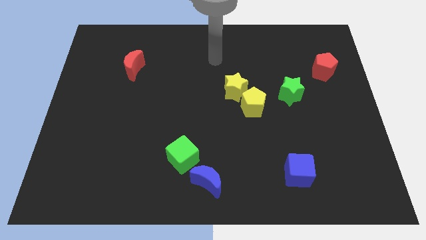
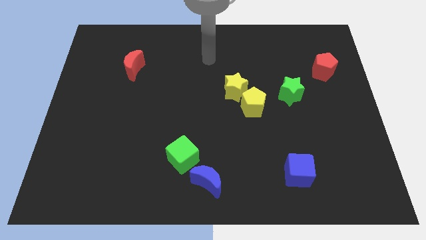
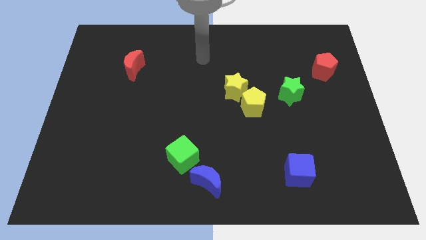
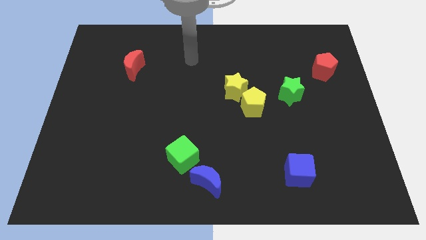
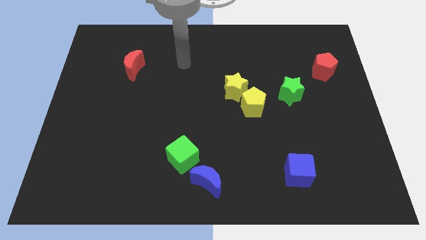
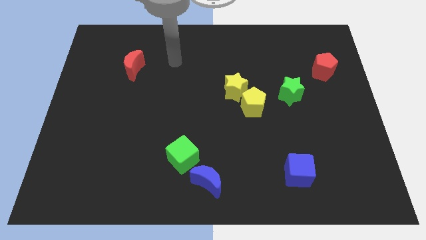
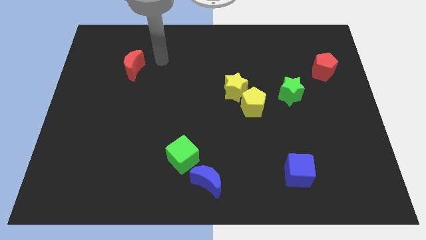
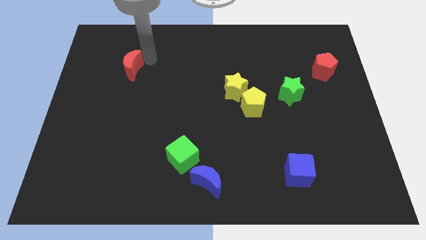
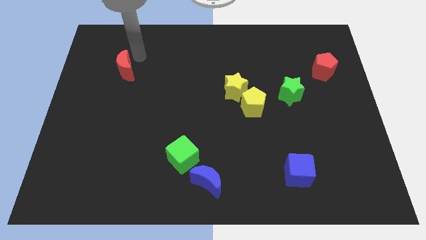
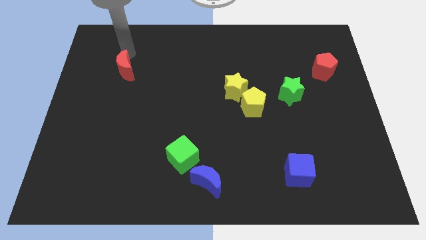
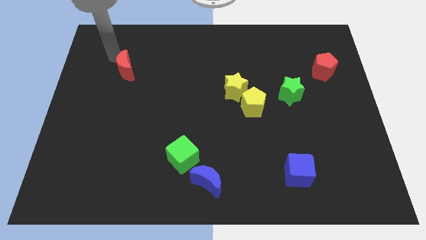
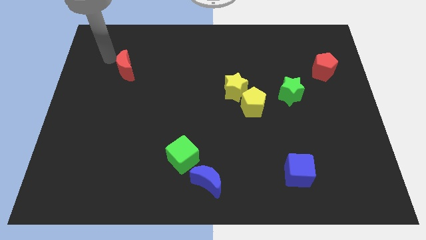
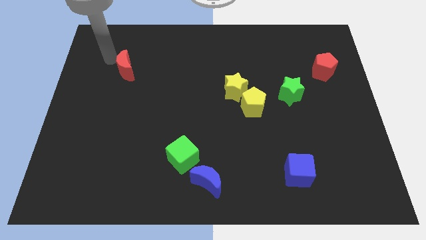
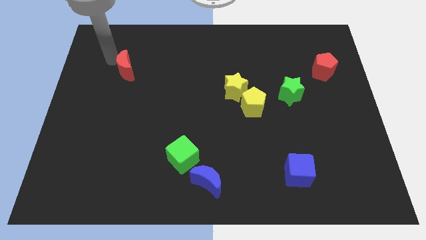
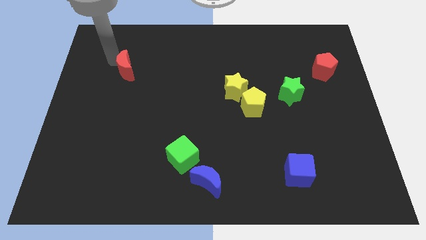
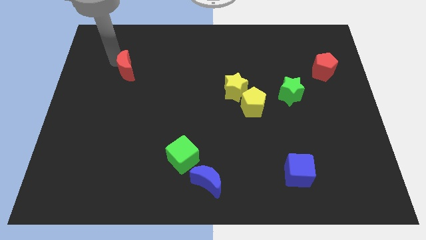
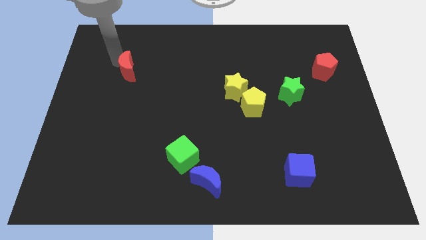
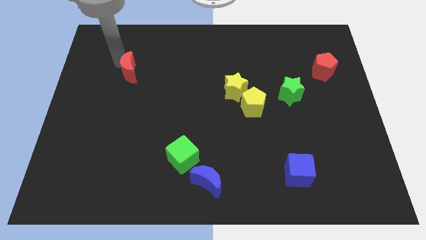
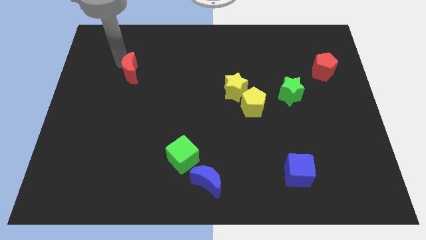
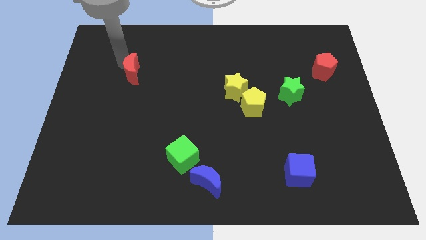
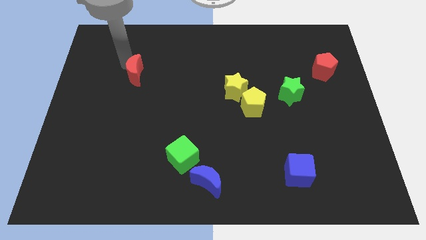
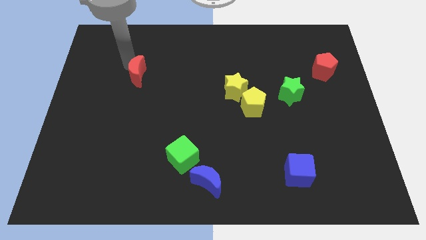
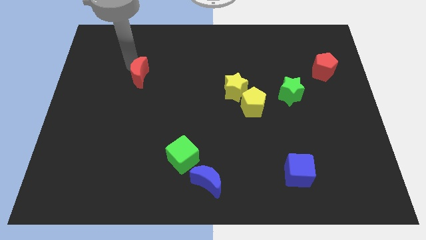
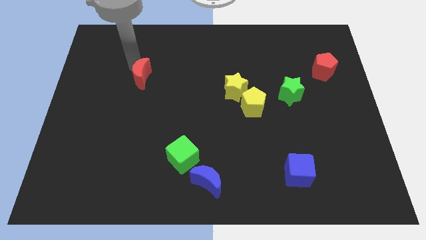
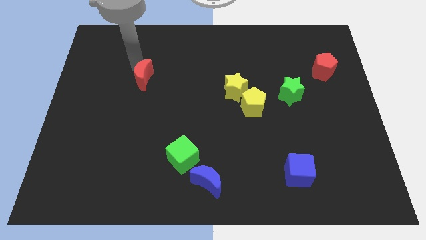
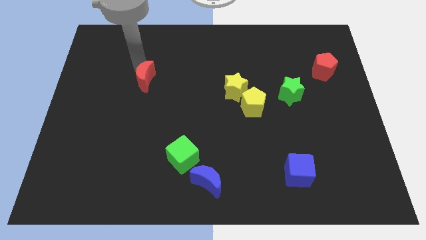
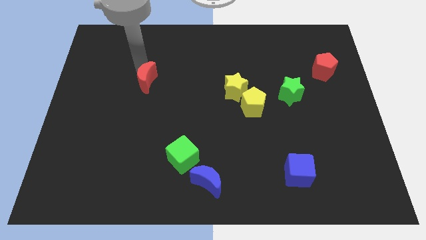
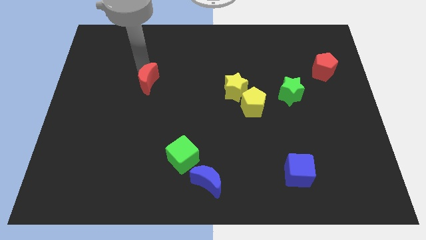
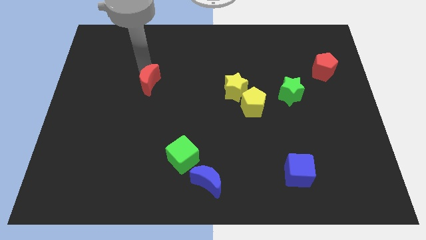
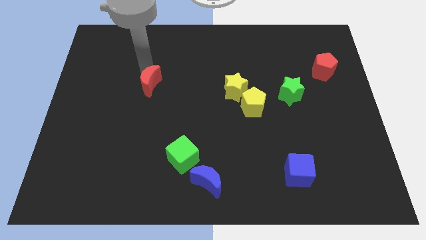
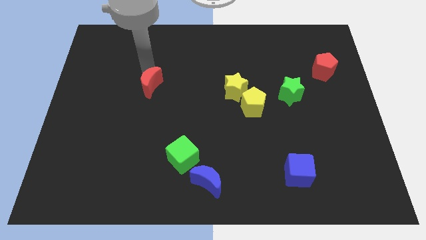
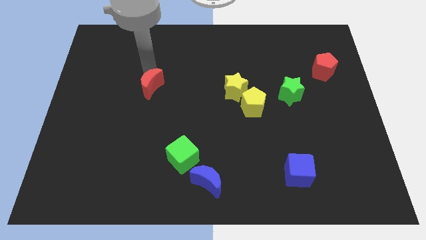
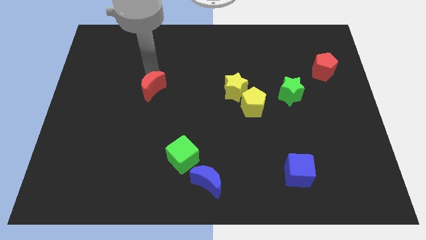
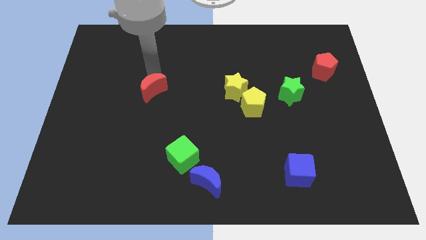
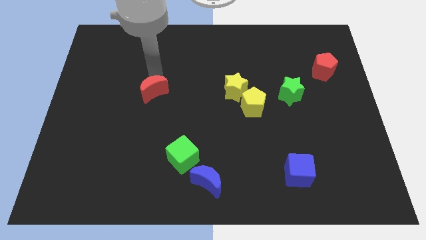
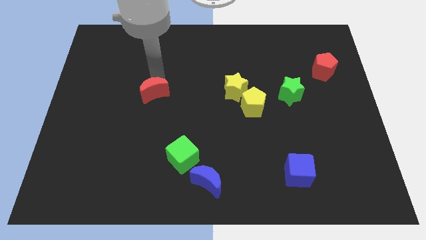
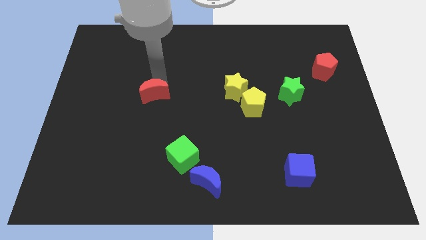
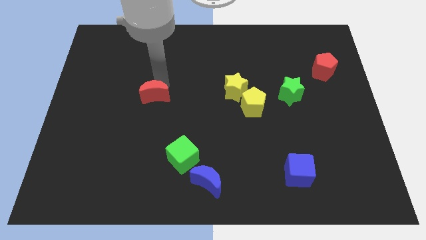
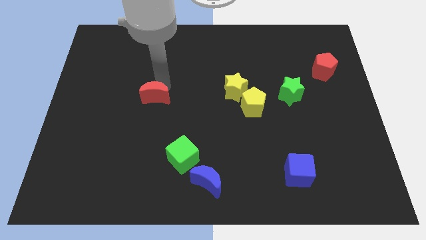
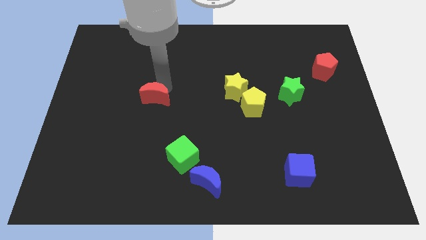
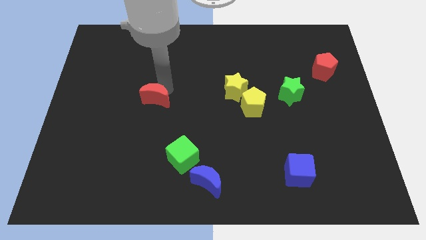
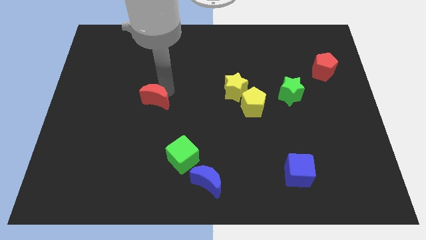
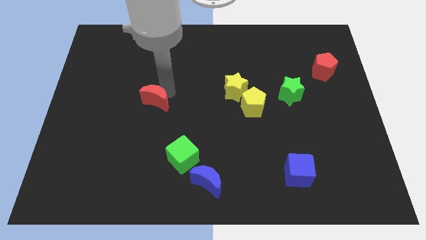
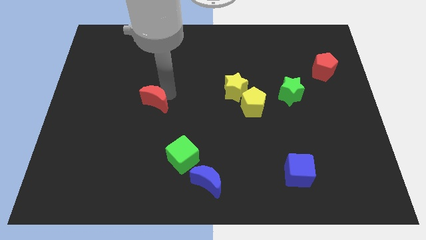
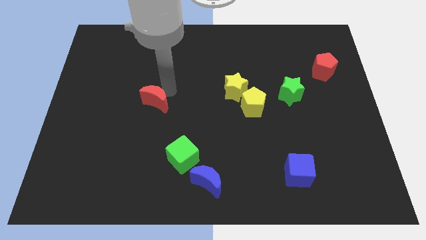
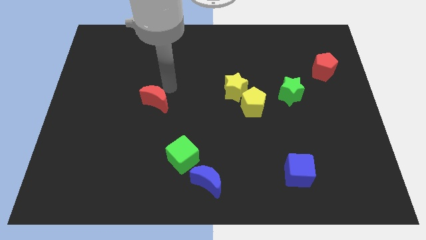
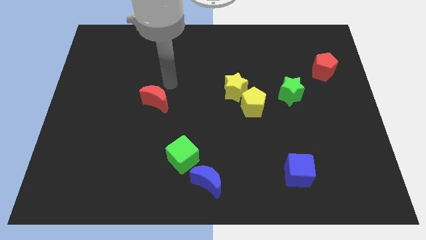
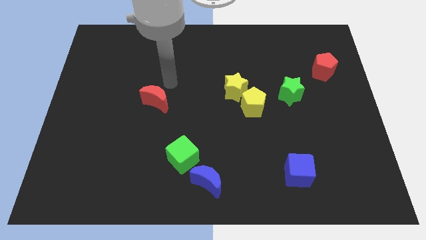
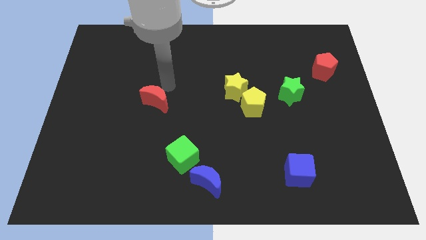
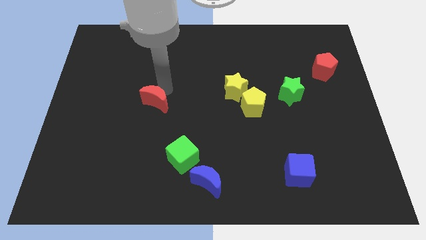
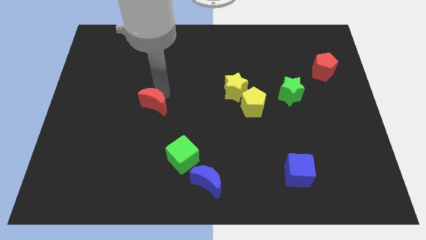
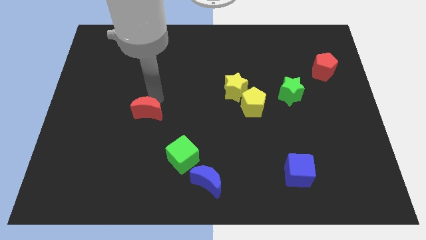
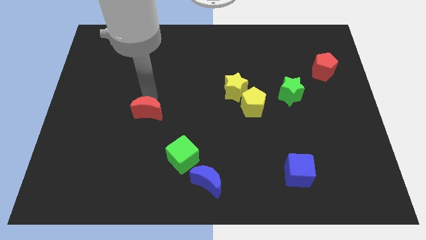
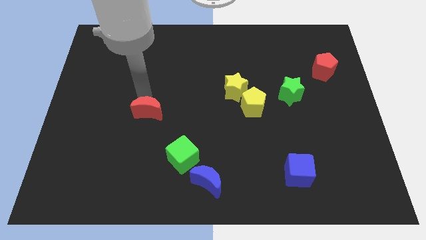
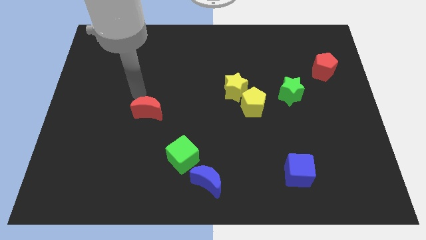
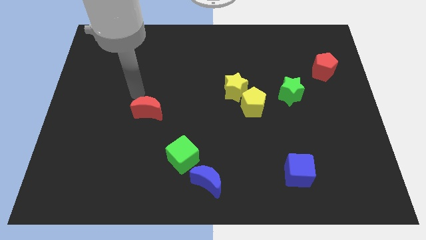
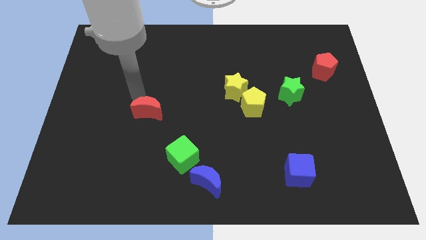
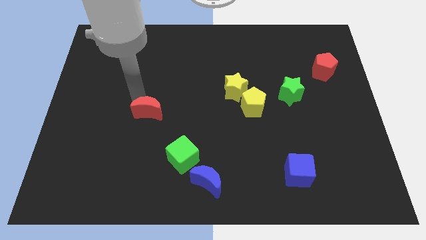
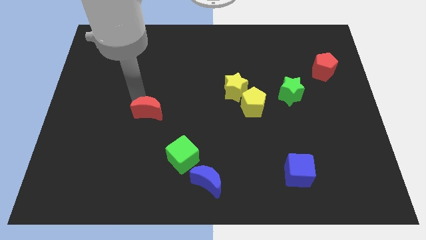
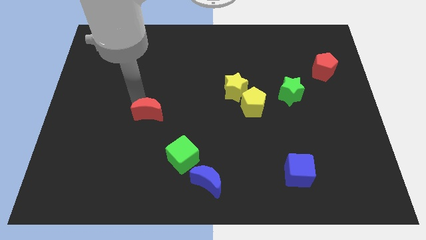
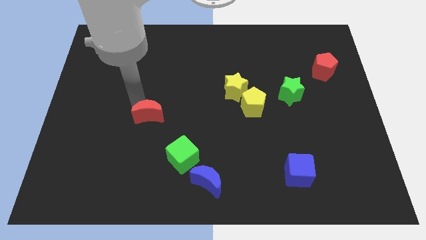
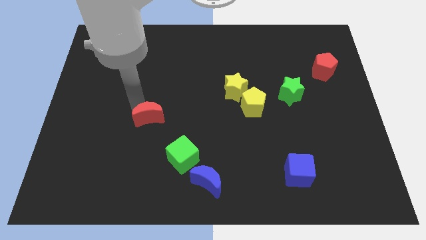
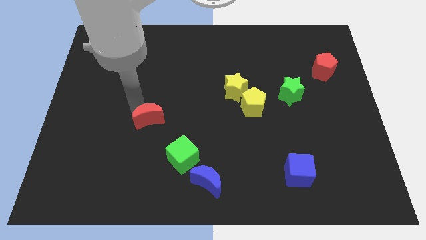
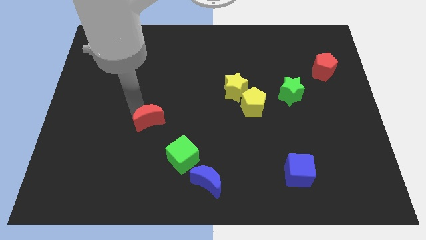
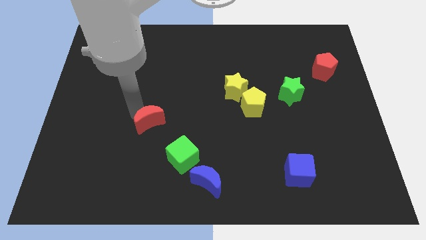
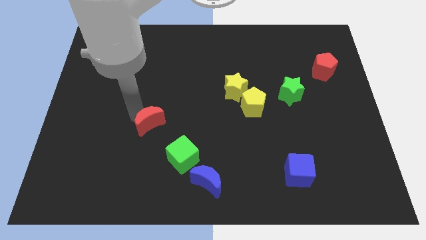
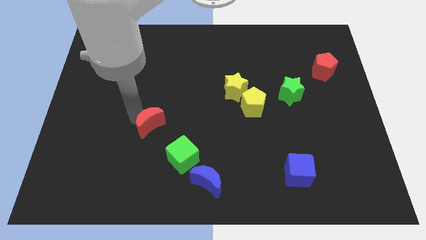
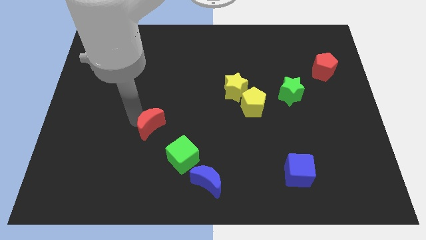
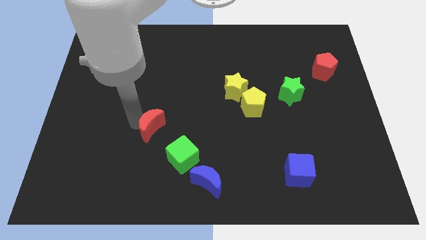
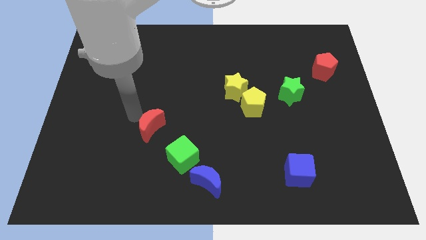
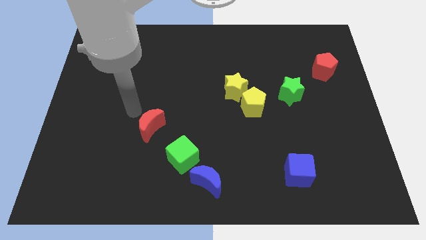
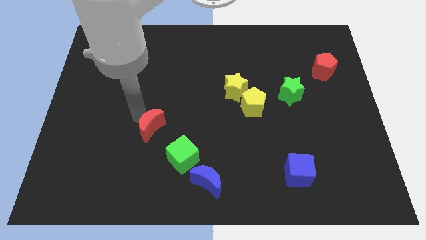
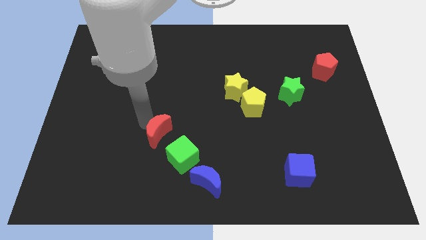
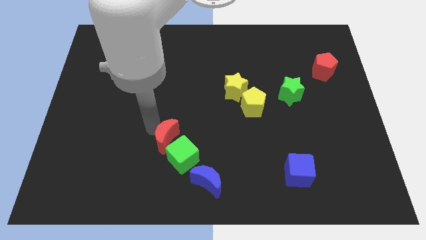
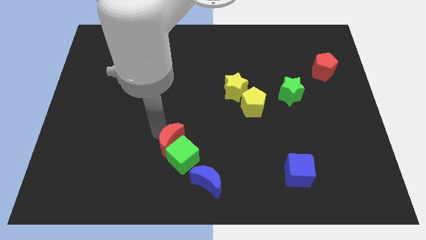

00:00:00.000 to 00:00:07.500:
slide the red moon towards the green cube

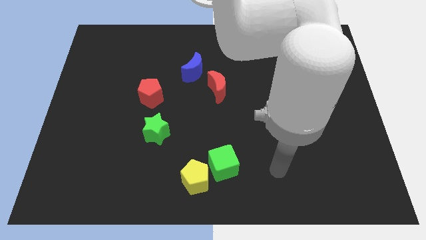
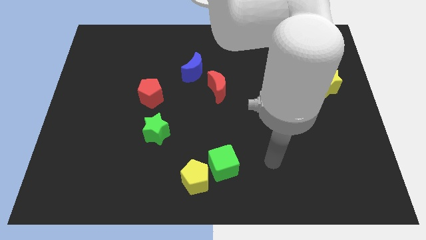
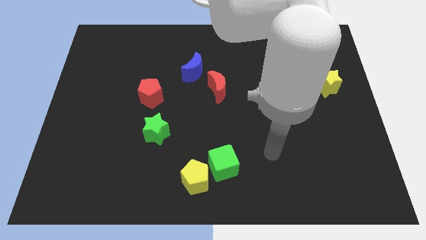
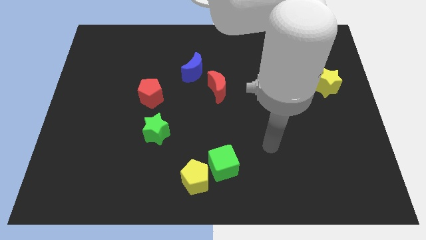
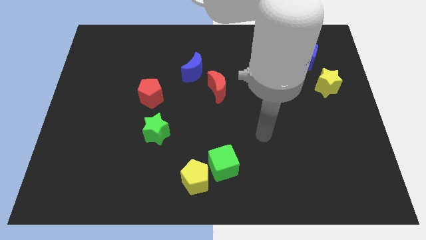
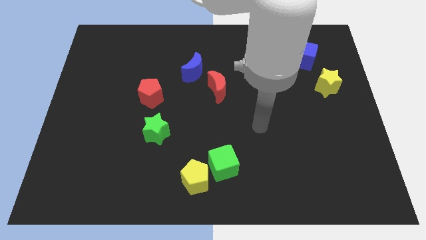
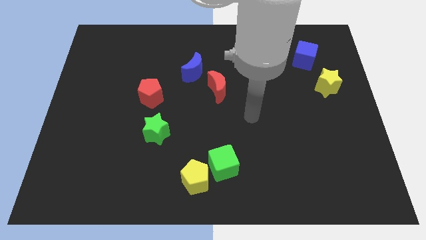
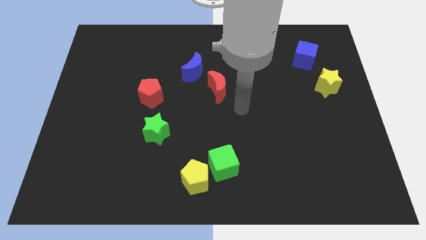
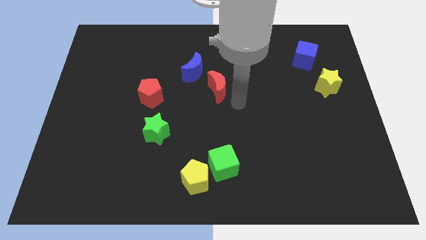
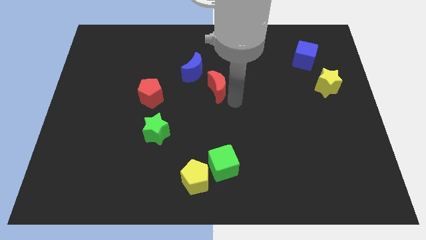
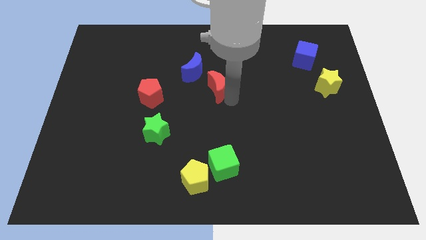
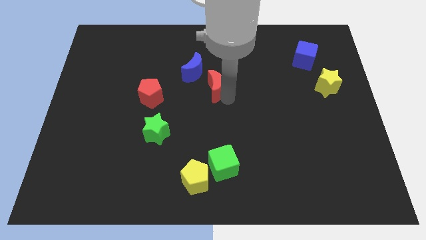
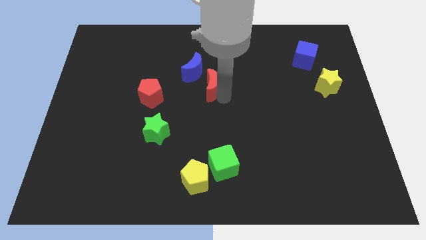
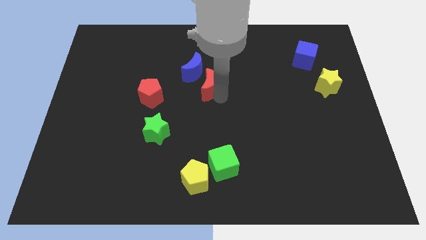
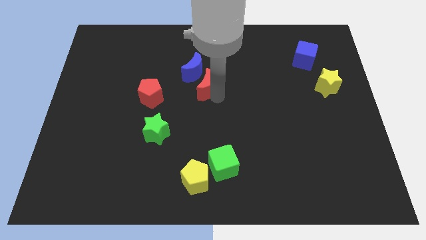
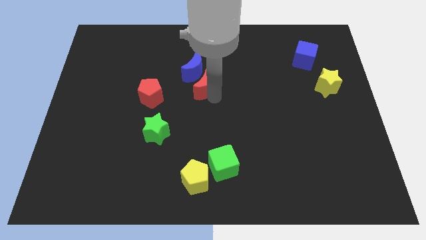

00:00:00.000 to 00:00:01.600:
push the red moon close to the blue moon
